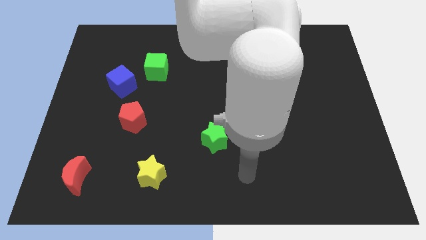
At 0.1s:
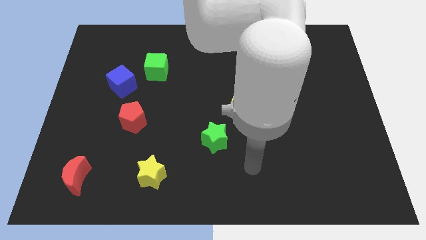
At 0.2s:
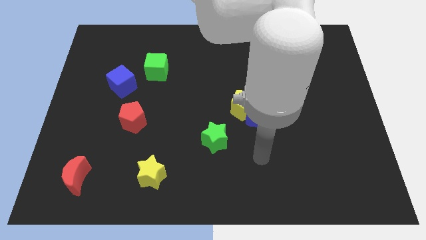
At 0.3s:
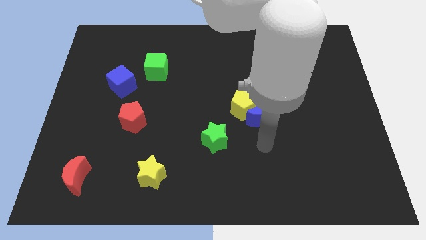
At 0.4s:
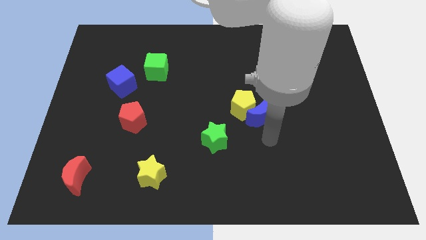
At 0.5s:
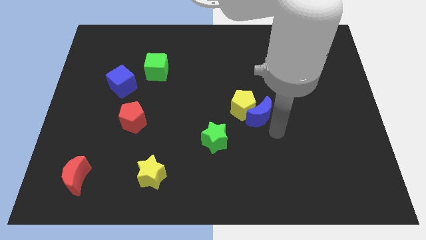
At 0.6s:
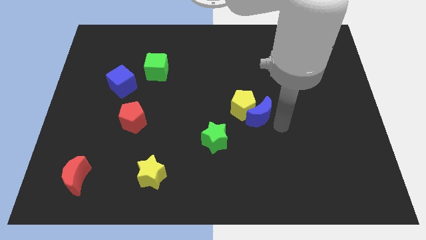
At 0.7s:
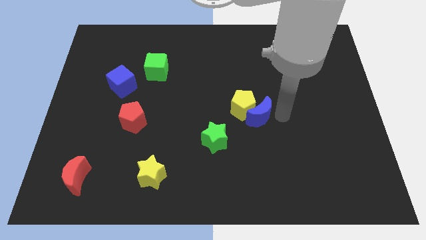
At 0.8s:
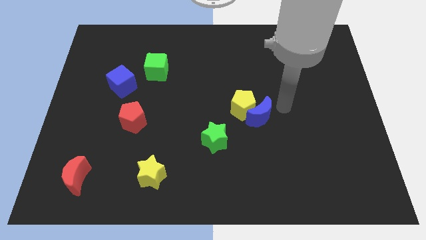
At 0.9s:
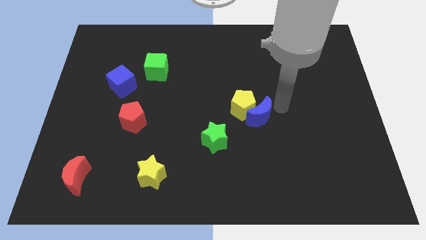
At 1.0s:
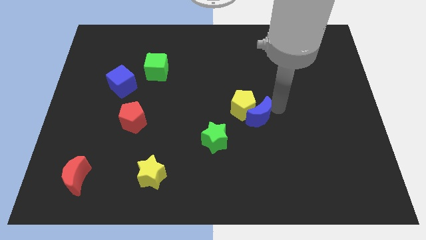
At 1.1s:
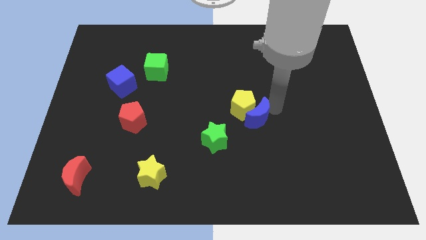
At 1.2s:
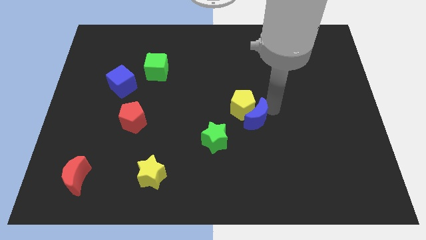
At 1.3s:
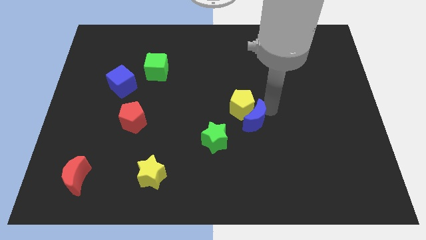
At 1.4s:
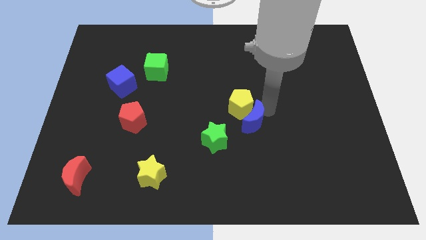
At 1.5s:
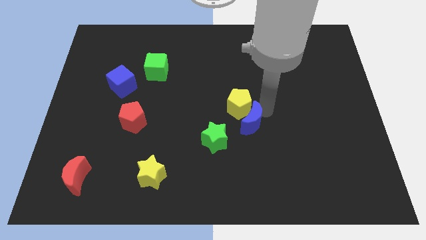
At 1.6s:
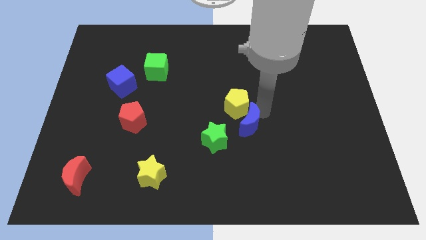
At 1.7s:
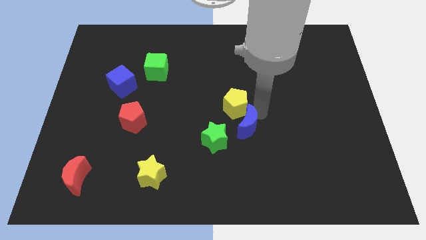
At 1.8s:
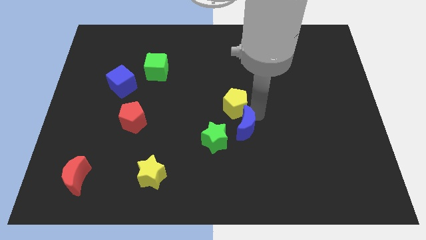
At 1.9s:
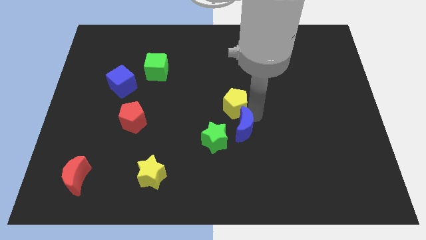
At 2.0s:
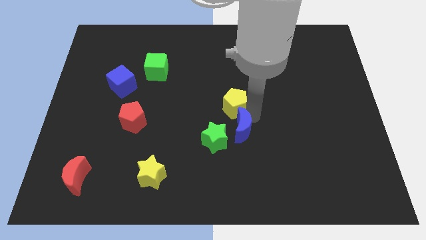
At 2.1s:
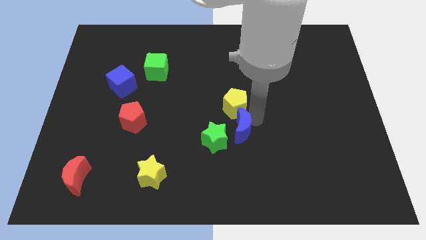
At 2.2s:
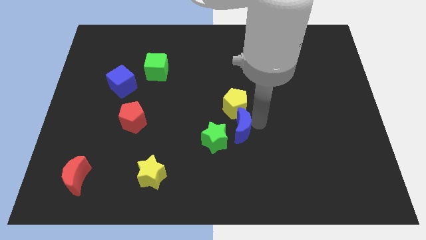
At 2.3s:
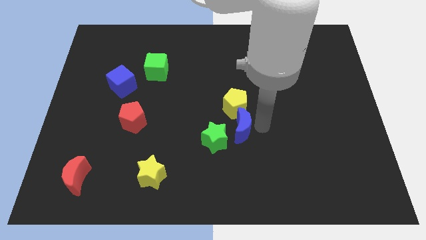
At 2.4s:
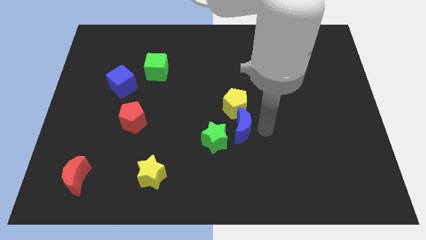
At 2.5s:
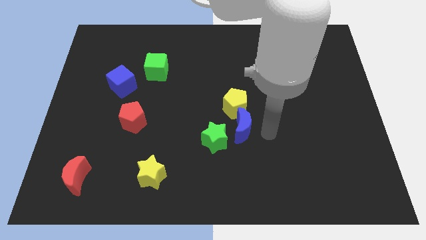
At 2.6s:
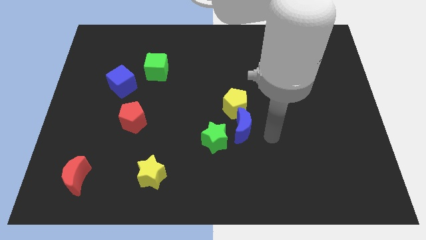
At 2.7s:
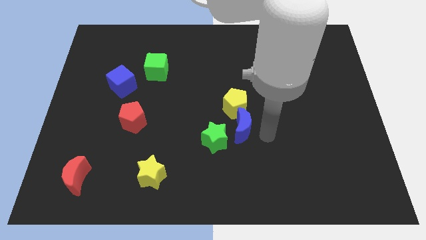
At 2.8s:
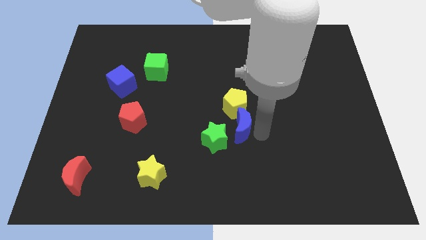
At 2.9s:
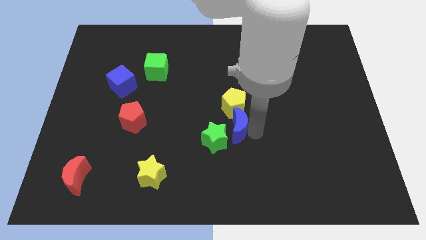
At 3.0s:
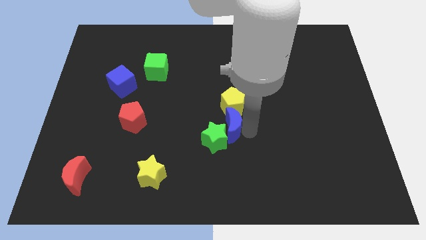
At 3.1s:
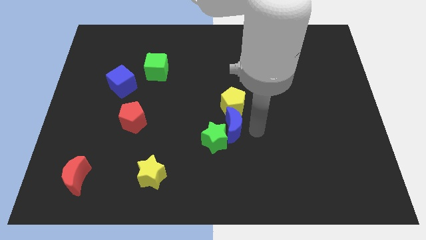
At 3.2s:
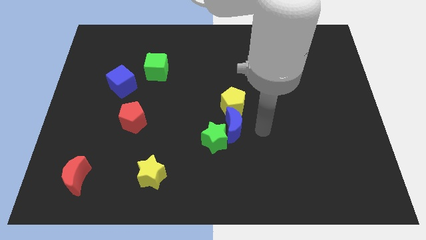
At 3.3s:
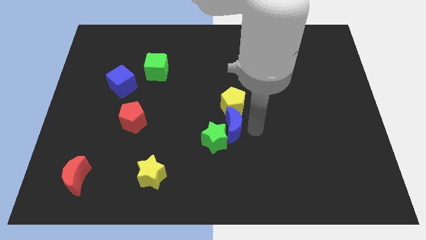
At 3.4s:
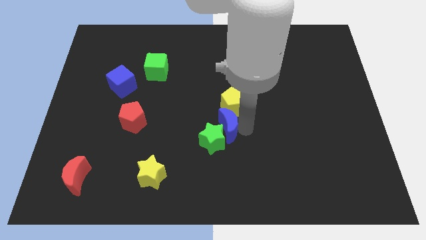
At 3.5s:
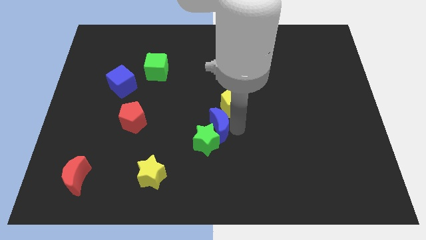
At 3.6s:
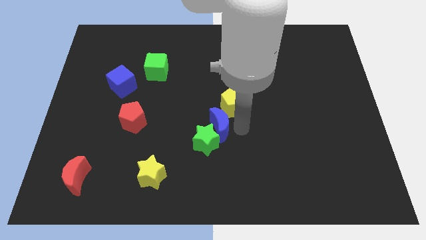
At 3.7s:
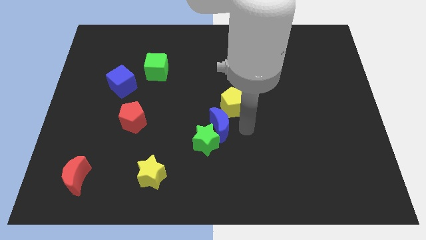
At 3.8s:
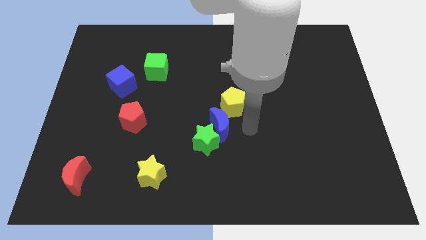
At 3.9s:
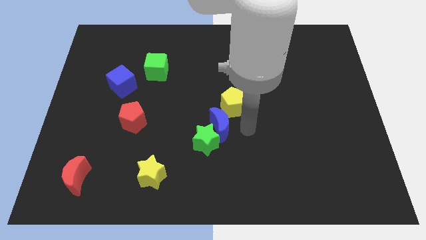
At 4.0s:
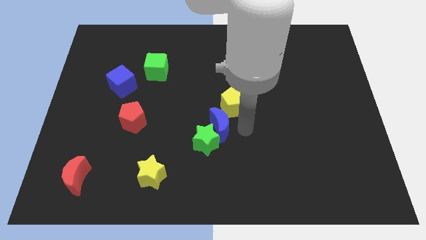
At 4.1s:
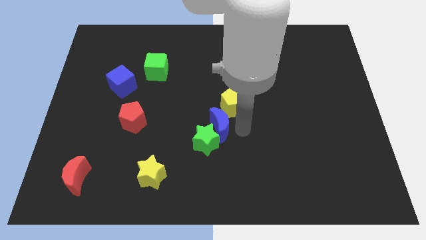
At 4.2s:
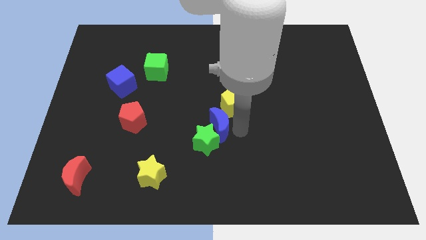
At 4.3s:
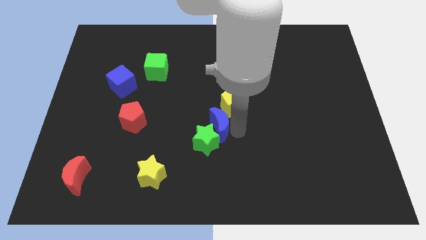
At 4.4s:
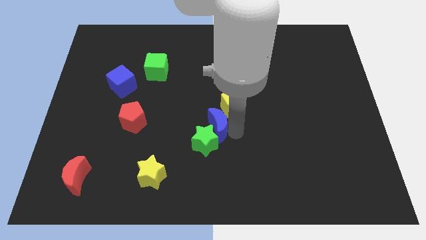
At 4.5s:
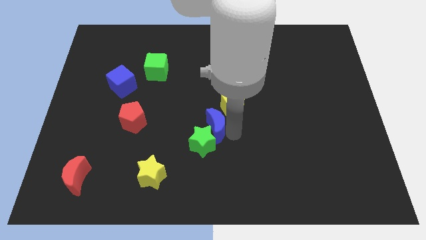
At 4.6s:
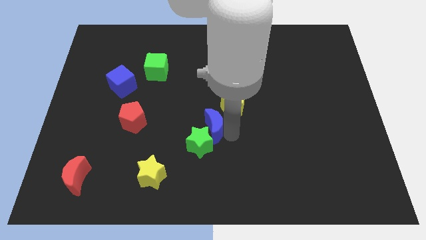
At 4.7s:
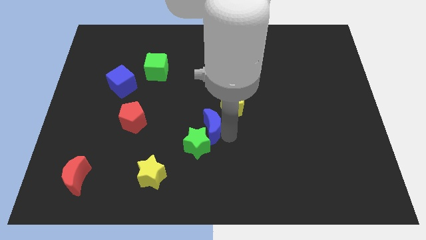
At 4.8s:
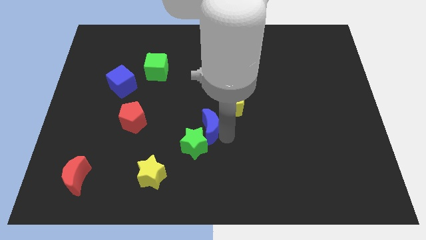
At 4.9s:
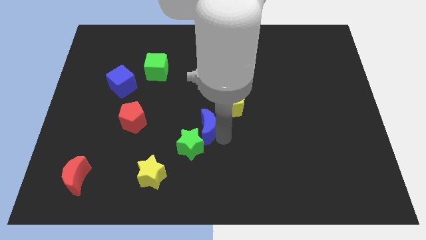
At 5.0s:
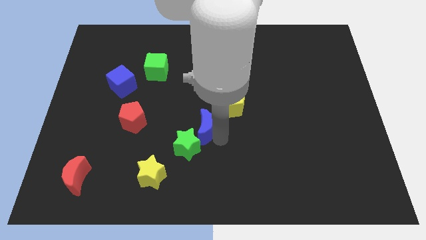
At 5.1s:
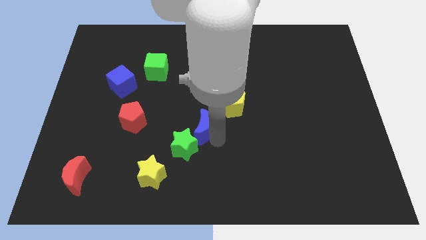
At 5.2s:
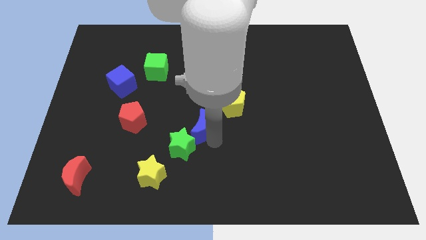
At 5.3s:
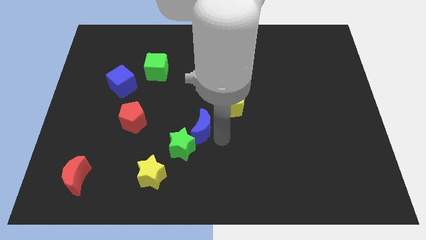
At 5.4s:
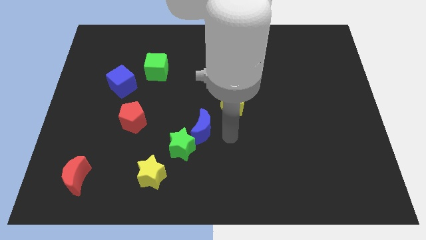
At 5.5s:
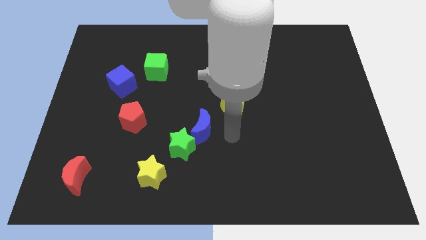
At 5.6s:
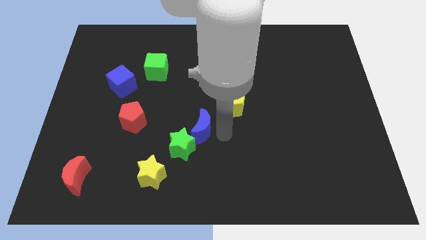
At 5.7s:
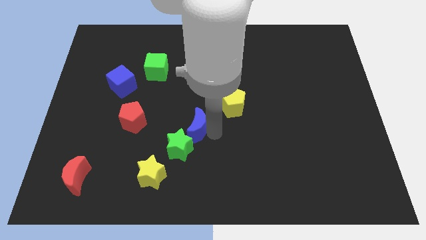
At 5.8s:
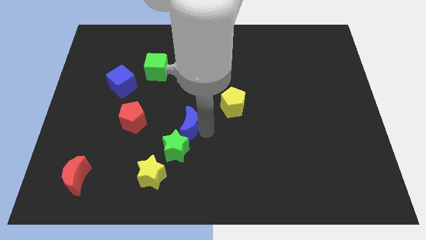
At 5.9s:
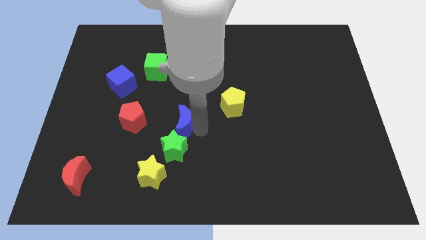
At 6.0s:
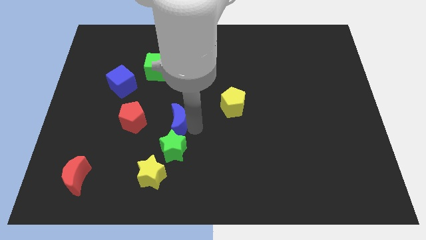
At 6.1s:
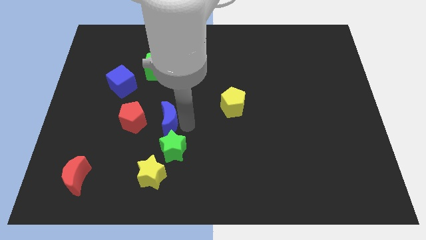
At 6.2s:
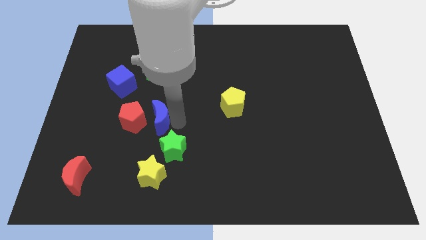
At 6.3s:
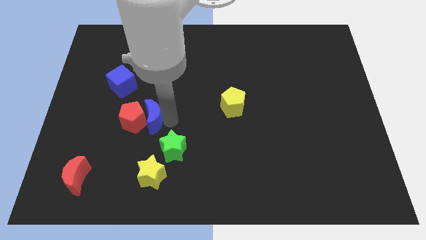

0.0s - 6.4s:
slide the blue moon to the red pentagon

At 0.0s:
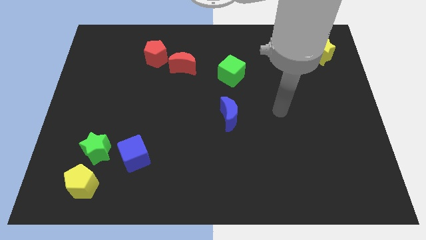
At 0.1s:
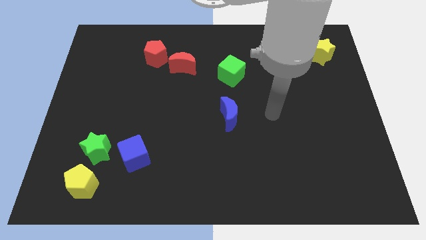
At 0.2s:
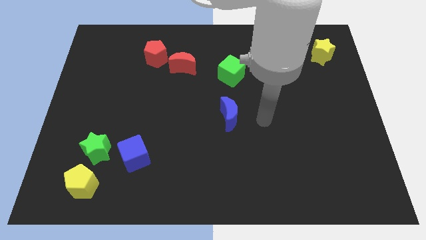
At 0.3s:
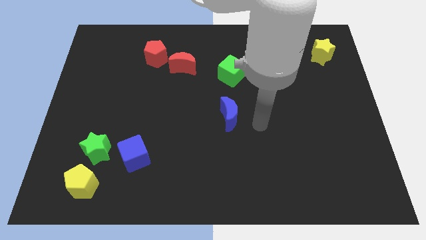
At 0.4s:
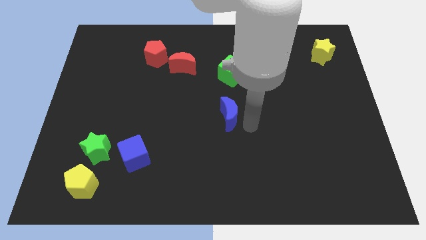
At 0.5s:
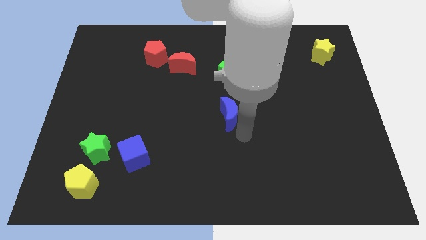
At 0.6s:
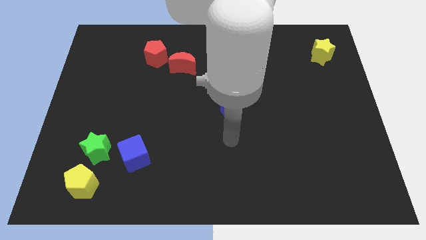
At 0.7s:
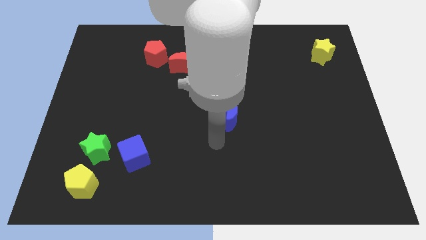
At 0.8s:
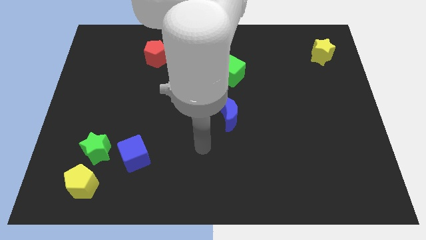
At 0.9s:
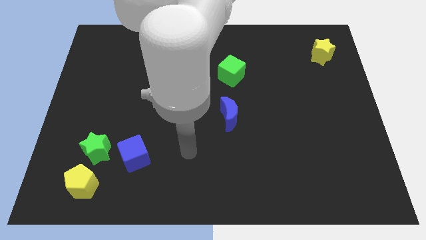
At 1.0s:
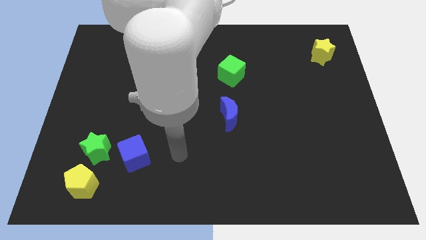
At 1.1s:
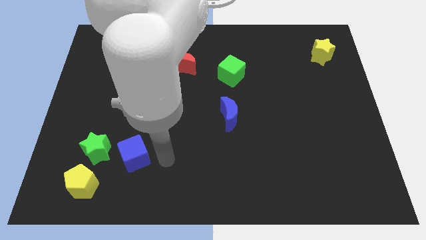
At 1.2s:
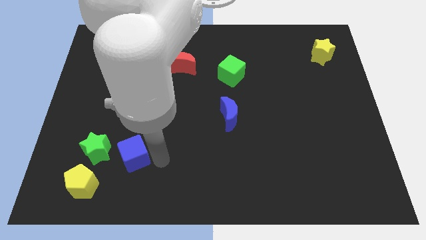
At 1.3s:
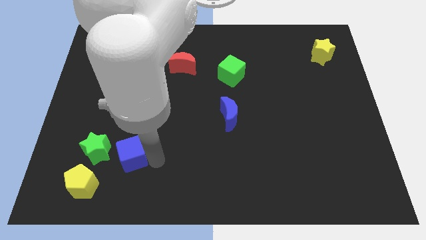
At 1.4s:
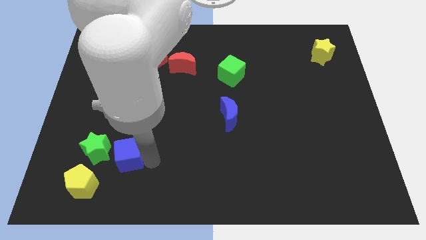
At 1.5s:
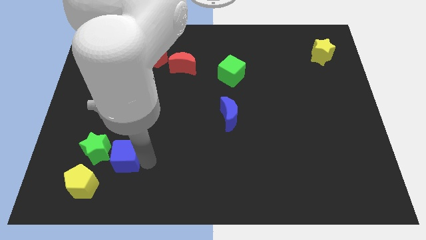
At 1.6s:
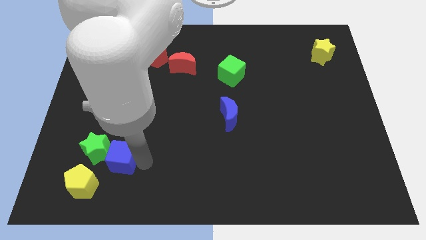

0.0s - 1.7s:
push the blue cube to the green star
